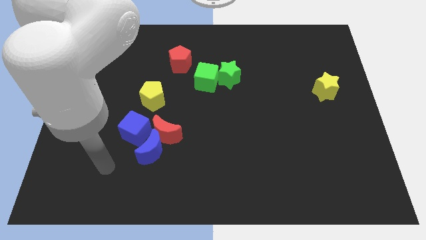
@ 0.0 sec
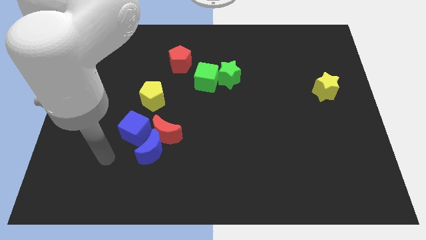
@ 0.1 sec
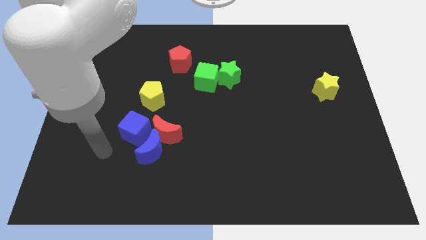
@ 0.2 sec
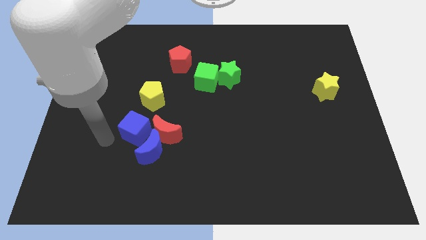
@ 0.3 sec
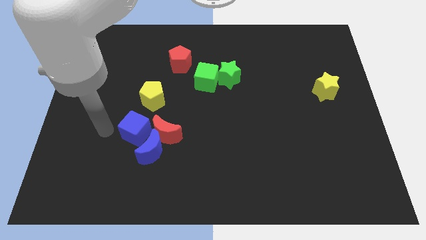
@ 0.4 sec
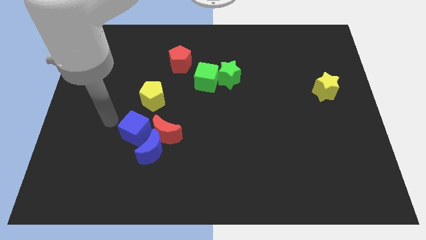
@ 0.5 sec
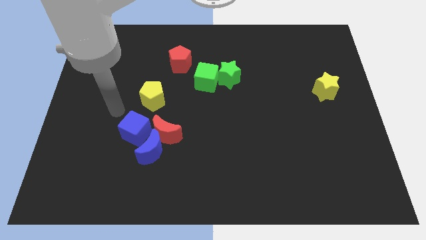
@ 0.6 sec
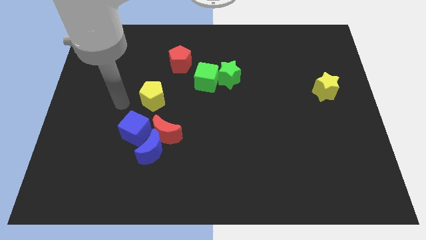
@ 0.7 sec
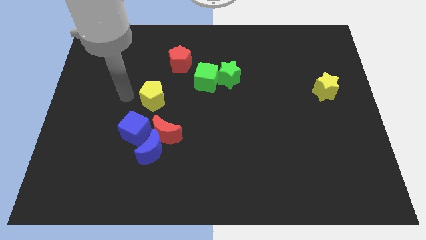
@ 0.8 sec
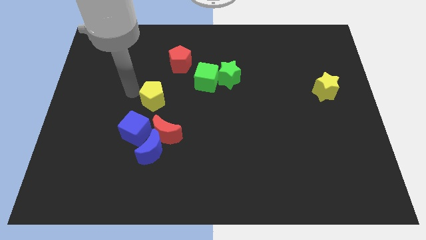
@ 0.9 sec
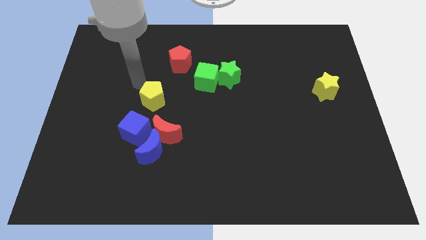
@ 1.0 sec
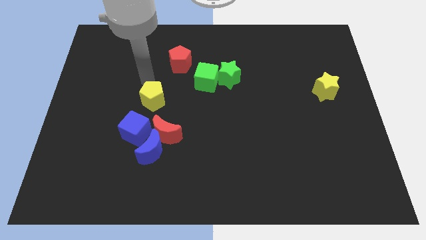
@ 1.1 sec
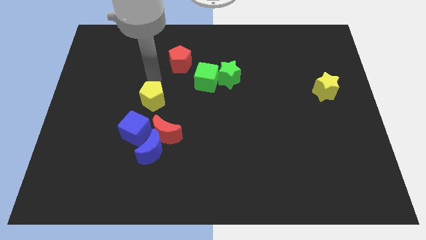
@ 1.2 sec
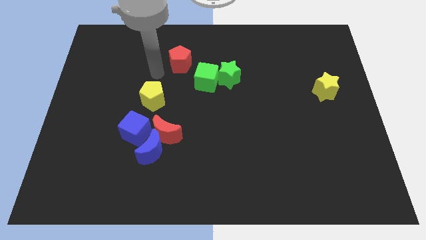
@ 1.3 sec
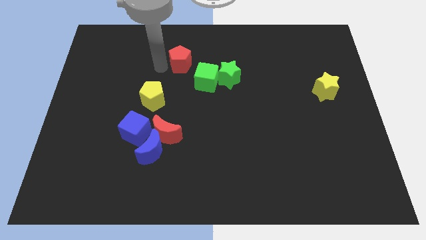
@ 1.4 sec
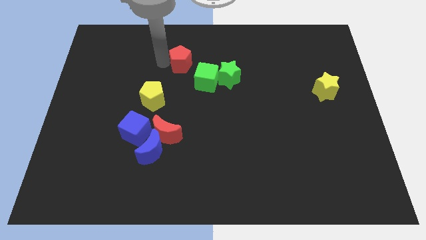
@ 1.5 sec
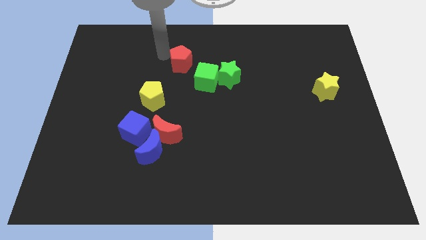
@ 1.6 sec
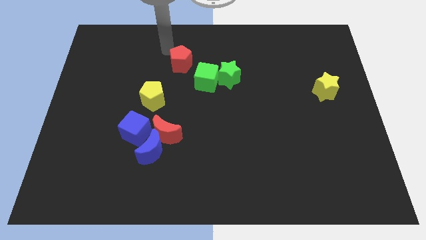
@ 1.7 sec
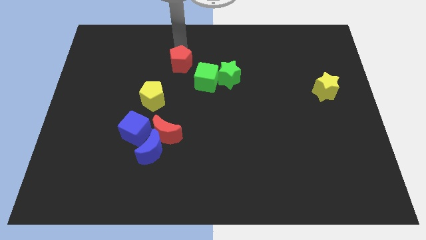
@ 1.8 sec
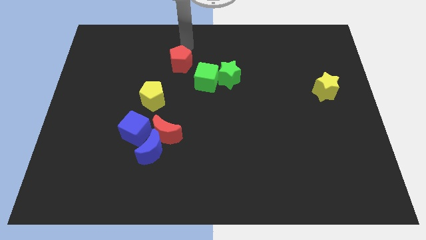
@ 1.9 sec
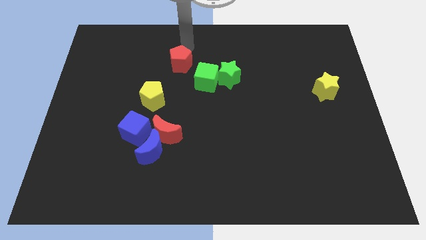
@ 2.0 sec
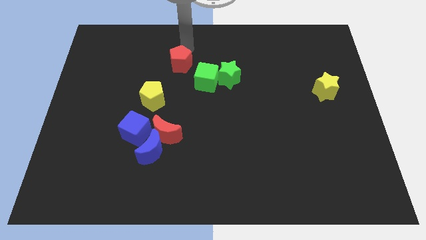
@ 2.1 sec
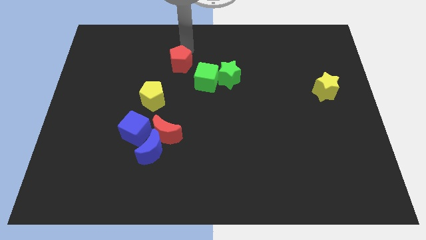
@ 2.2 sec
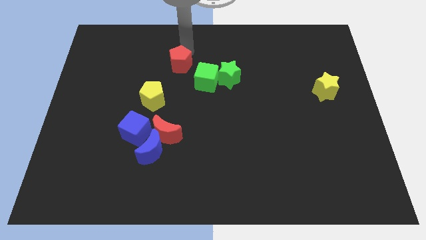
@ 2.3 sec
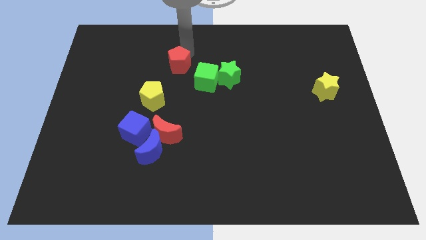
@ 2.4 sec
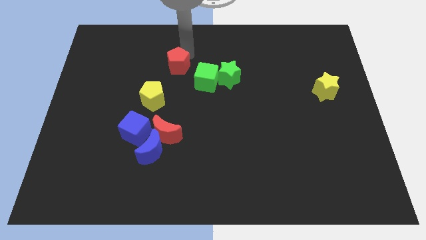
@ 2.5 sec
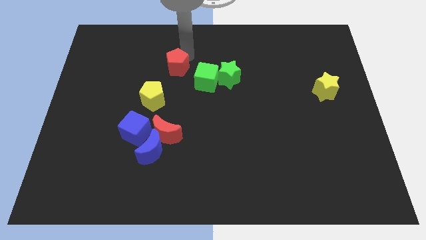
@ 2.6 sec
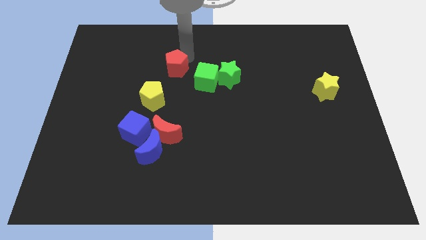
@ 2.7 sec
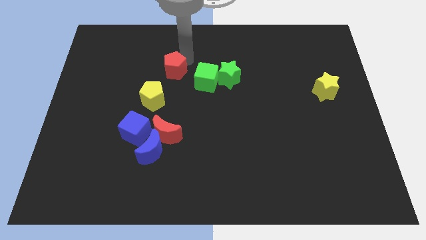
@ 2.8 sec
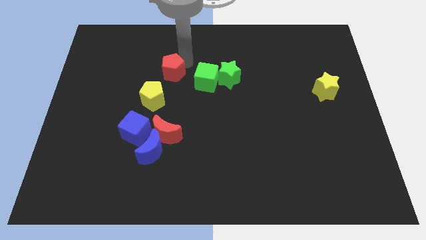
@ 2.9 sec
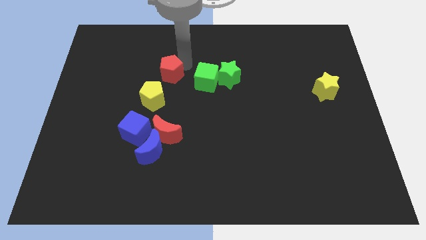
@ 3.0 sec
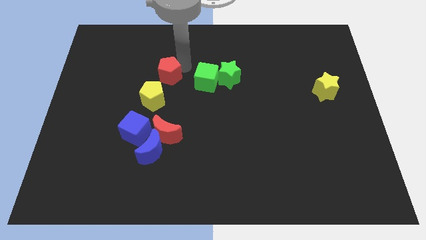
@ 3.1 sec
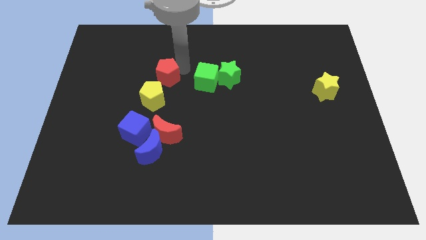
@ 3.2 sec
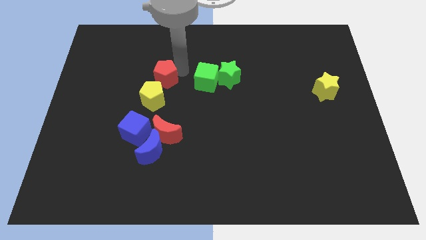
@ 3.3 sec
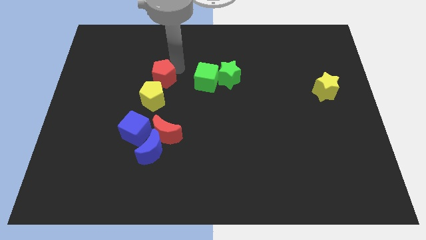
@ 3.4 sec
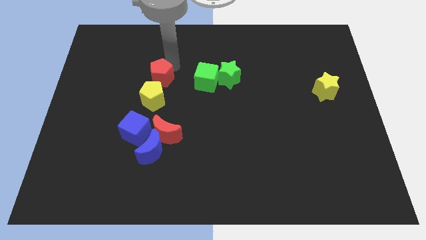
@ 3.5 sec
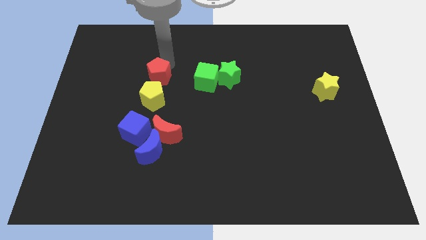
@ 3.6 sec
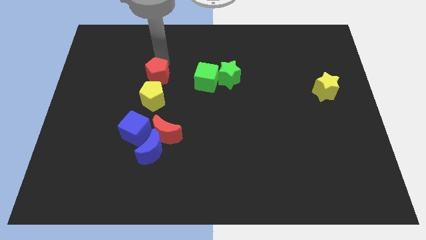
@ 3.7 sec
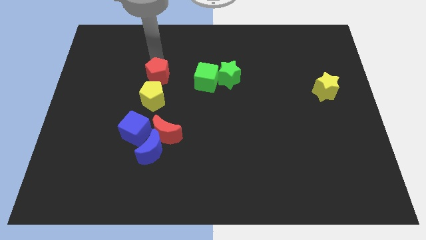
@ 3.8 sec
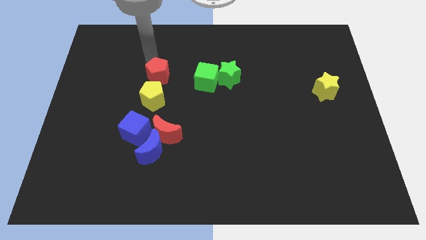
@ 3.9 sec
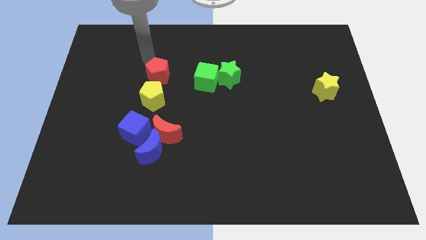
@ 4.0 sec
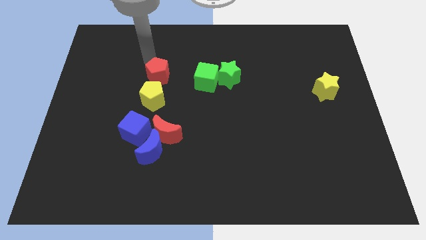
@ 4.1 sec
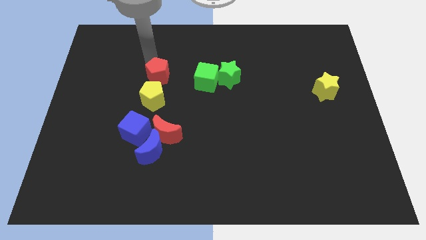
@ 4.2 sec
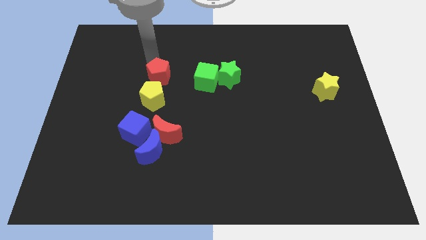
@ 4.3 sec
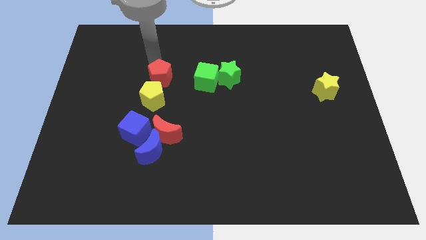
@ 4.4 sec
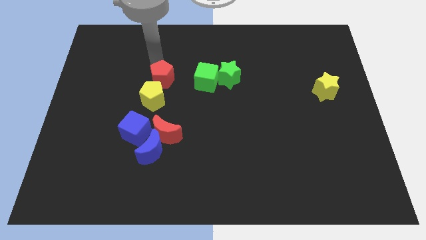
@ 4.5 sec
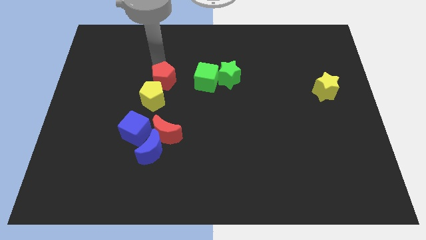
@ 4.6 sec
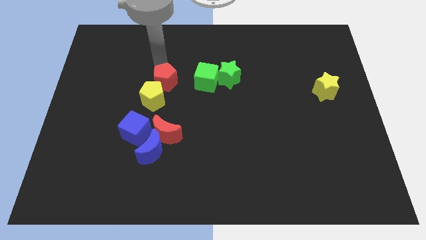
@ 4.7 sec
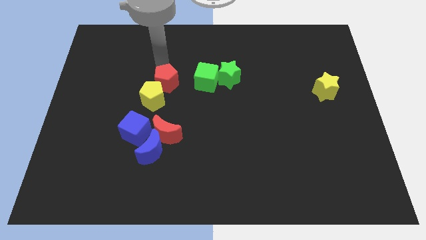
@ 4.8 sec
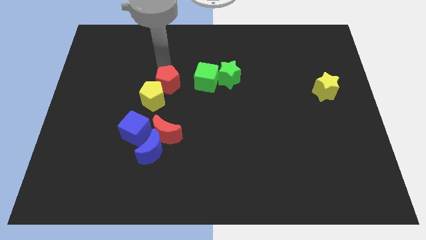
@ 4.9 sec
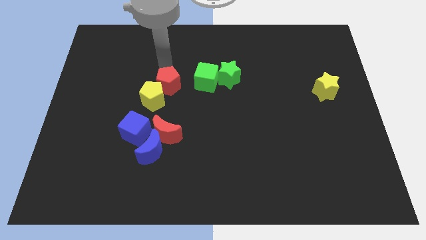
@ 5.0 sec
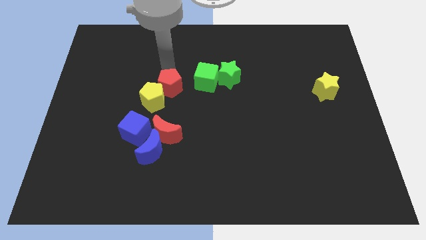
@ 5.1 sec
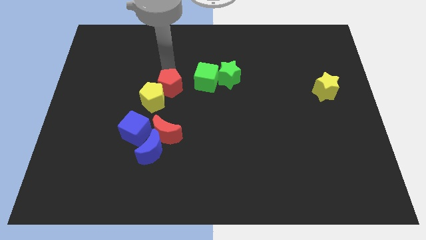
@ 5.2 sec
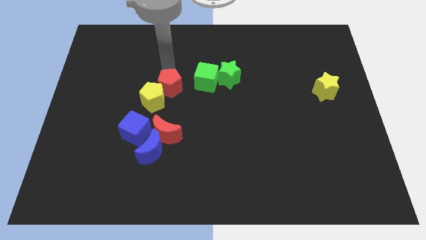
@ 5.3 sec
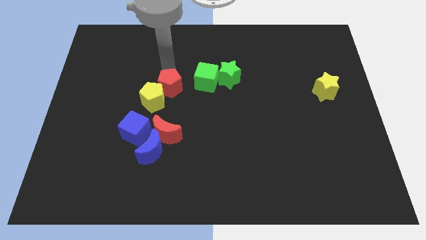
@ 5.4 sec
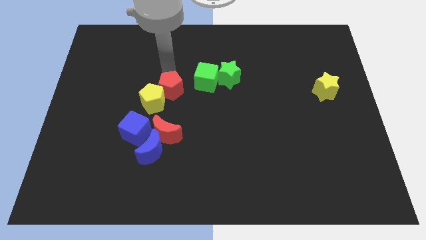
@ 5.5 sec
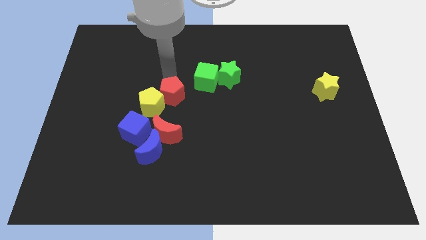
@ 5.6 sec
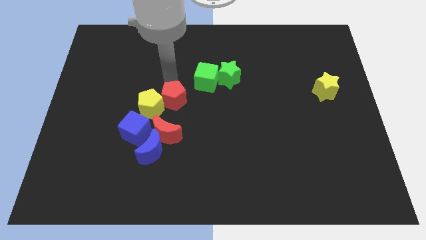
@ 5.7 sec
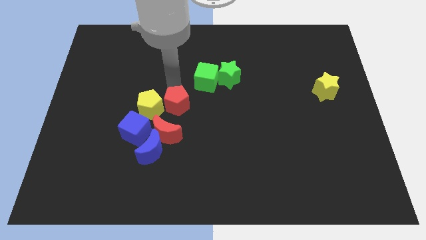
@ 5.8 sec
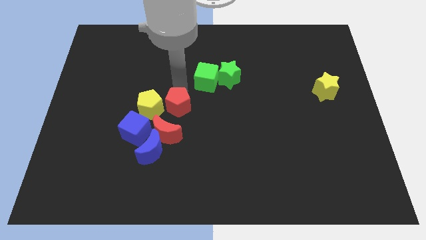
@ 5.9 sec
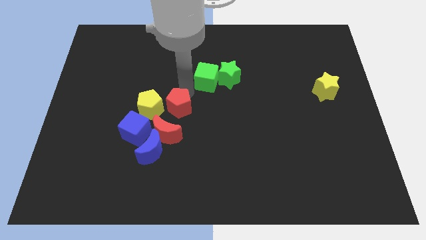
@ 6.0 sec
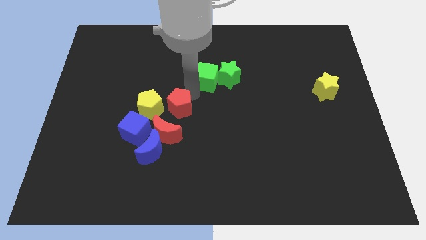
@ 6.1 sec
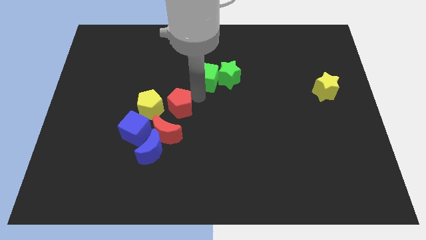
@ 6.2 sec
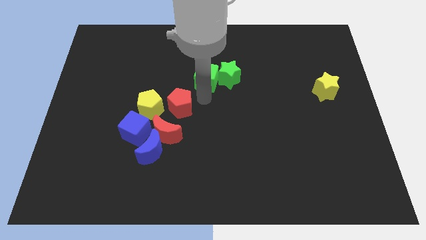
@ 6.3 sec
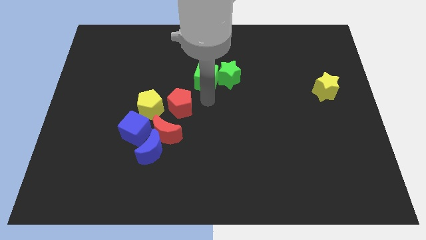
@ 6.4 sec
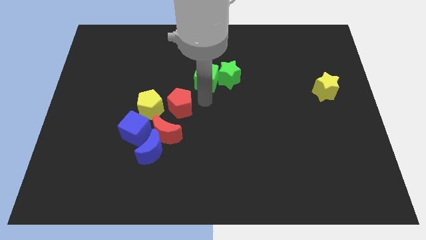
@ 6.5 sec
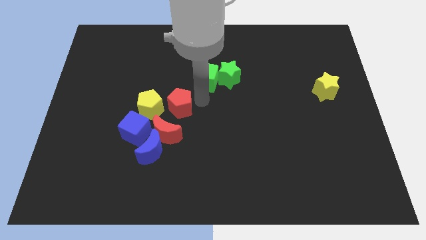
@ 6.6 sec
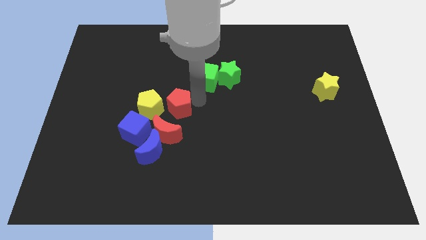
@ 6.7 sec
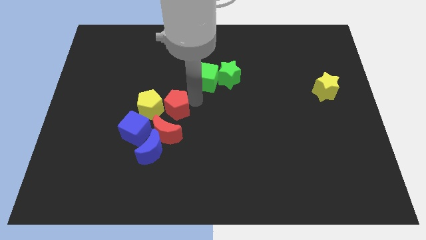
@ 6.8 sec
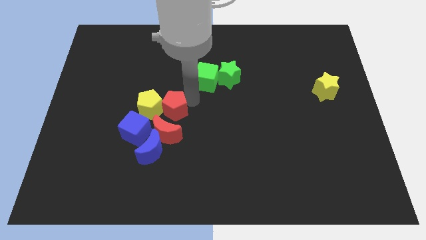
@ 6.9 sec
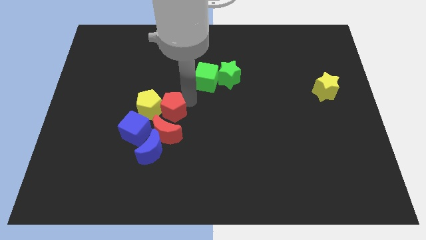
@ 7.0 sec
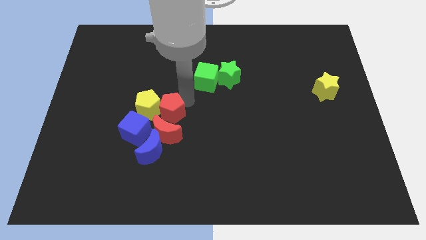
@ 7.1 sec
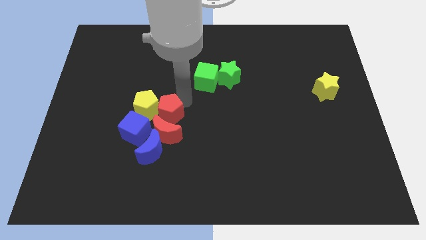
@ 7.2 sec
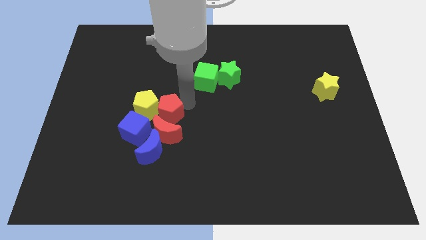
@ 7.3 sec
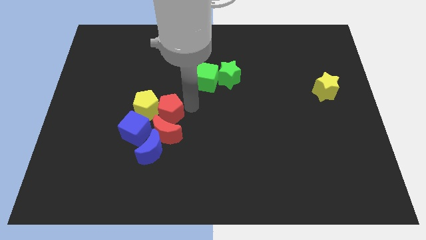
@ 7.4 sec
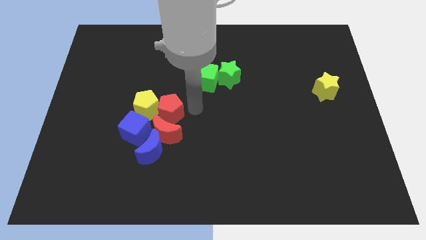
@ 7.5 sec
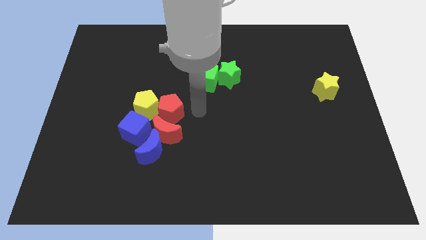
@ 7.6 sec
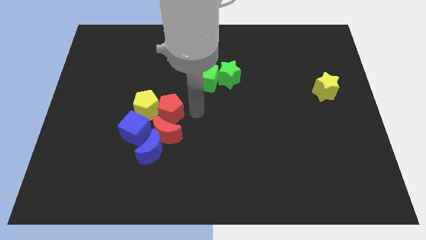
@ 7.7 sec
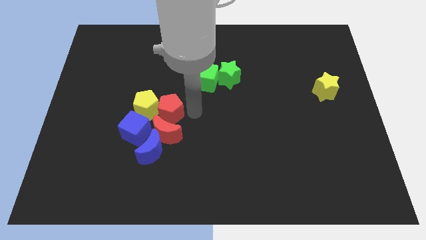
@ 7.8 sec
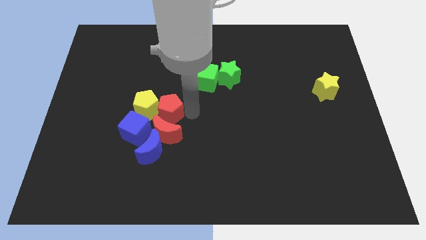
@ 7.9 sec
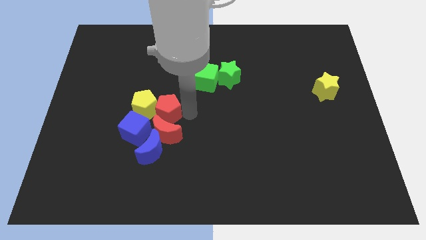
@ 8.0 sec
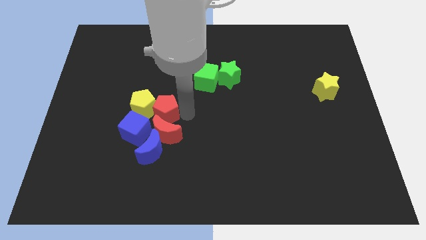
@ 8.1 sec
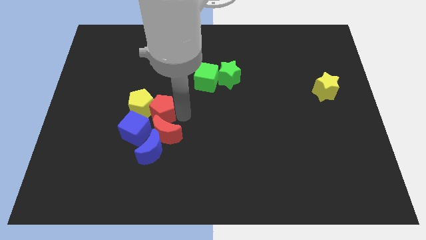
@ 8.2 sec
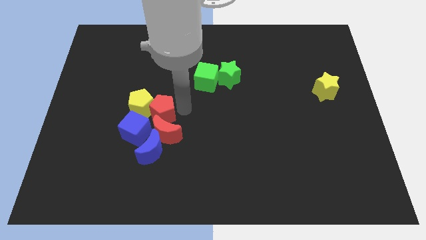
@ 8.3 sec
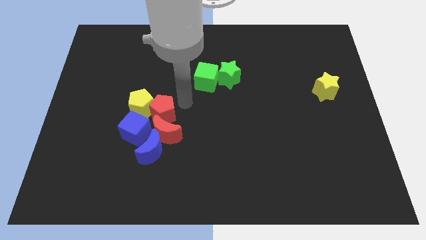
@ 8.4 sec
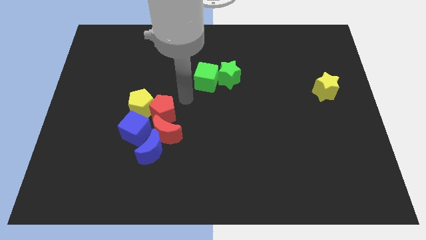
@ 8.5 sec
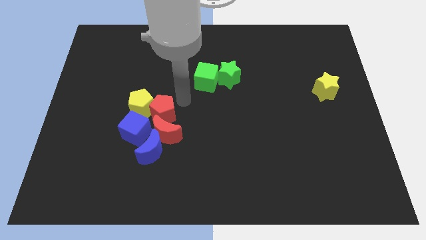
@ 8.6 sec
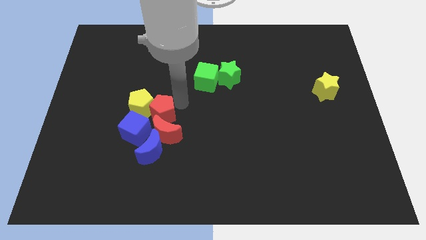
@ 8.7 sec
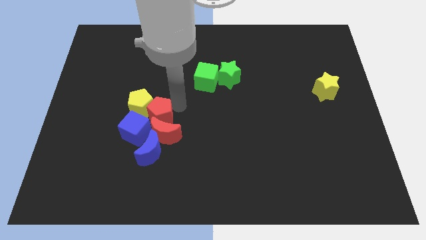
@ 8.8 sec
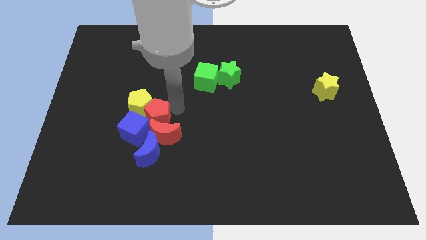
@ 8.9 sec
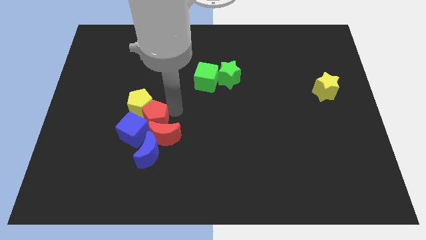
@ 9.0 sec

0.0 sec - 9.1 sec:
move the red pentagon to the blue cube
